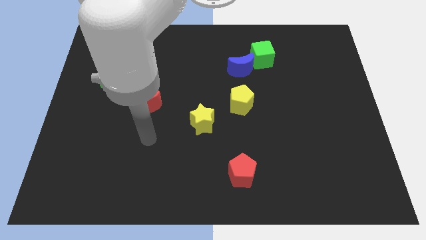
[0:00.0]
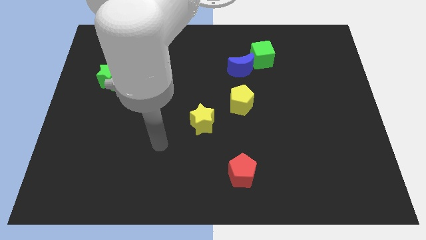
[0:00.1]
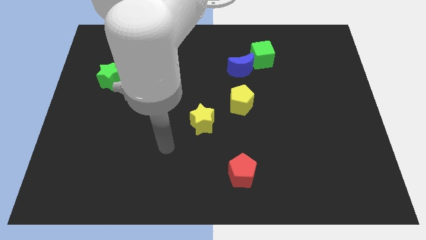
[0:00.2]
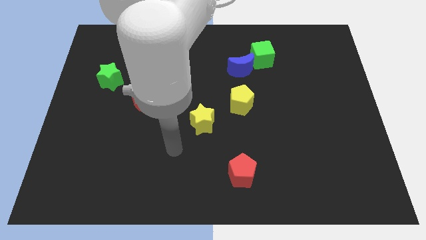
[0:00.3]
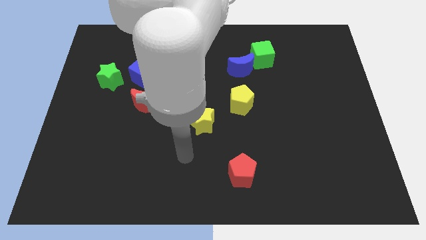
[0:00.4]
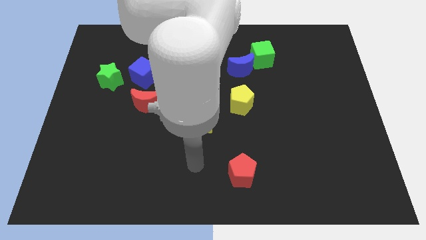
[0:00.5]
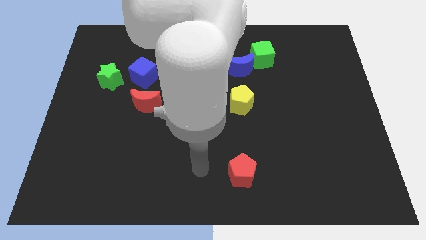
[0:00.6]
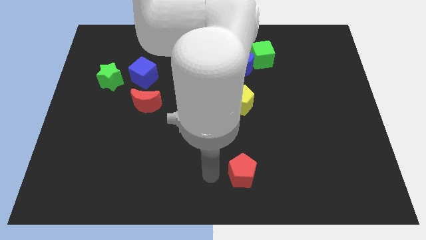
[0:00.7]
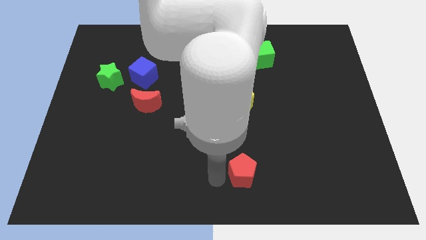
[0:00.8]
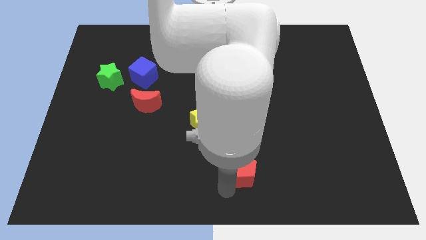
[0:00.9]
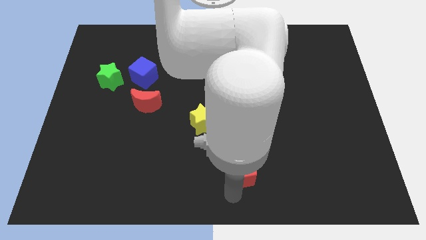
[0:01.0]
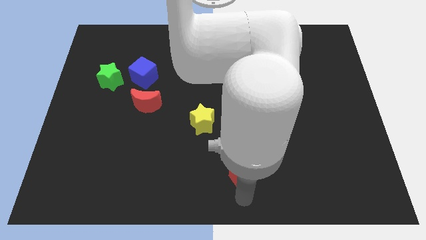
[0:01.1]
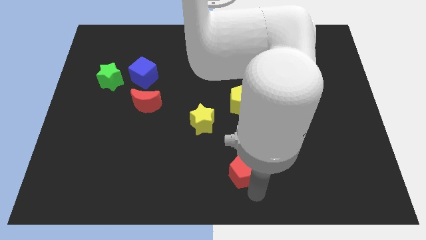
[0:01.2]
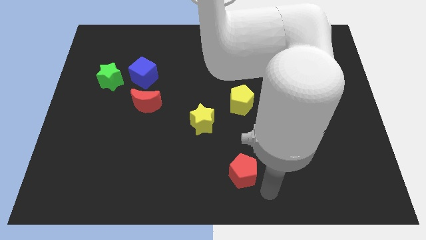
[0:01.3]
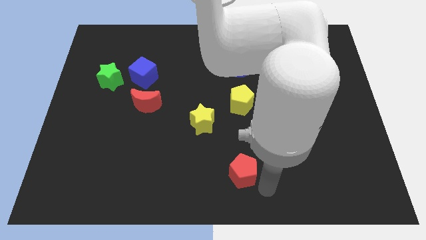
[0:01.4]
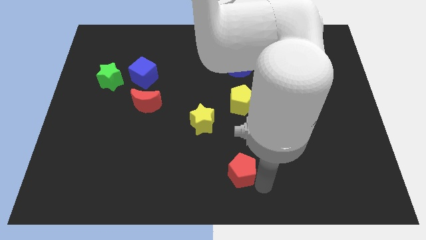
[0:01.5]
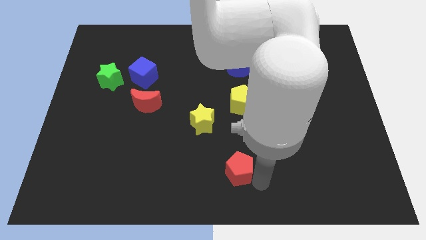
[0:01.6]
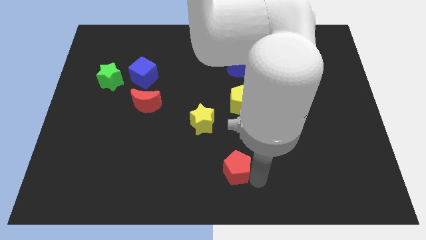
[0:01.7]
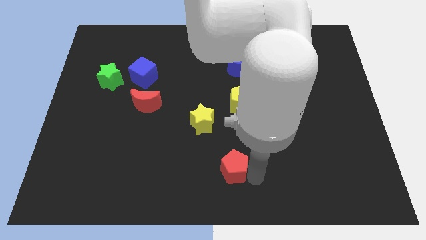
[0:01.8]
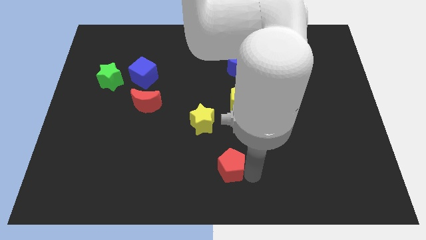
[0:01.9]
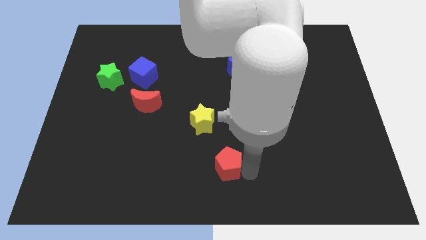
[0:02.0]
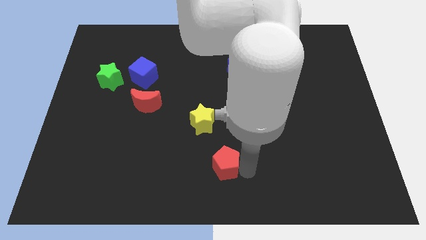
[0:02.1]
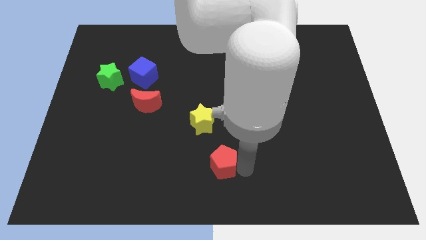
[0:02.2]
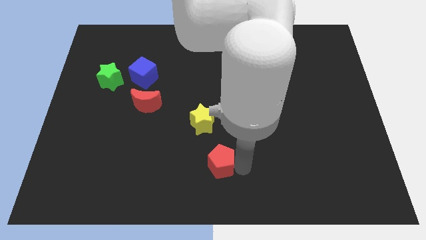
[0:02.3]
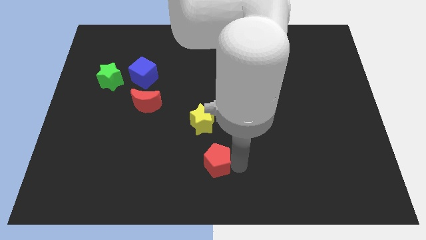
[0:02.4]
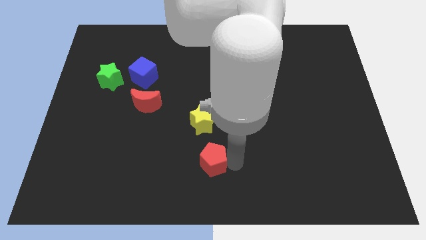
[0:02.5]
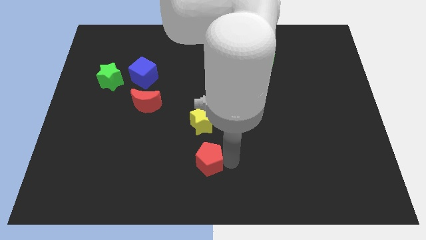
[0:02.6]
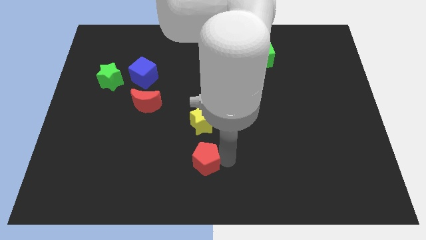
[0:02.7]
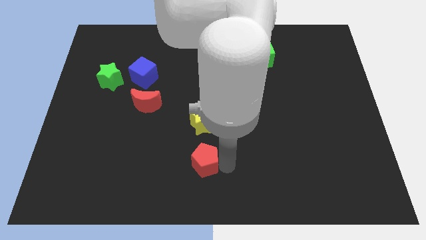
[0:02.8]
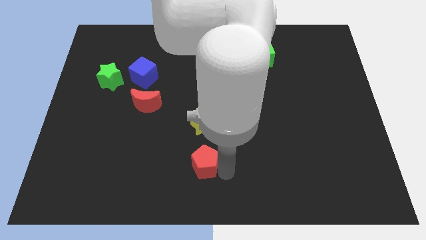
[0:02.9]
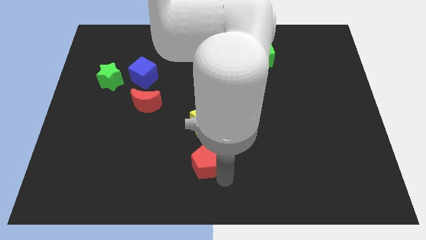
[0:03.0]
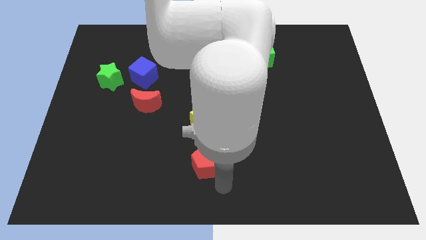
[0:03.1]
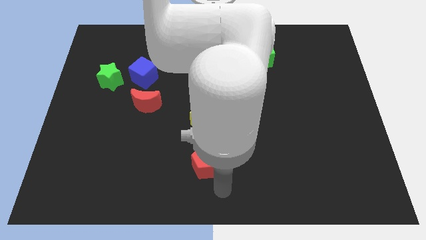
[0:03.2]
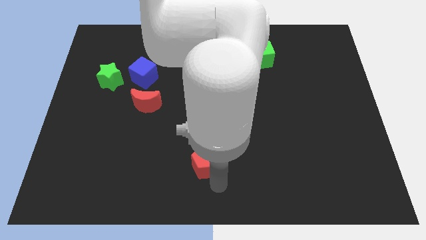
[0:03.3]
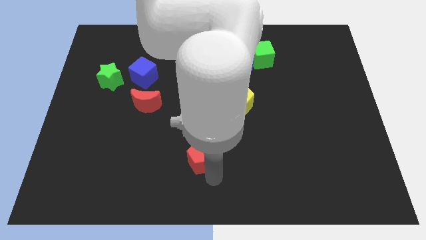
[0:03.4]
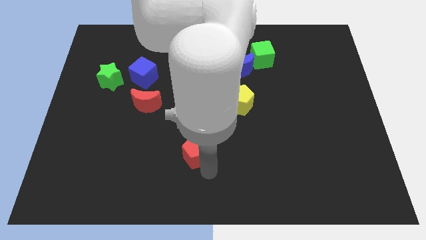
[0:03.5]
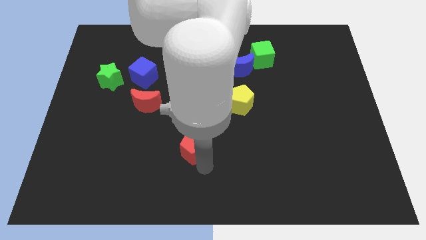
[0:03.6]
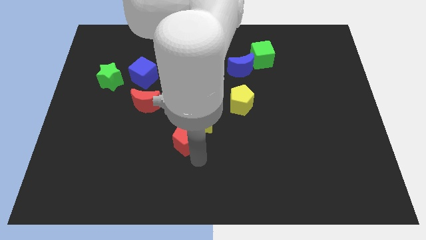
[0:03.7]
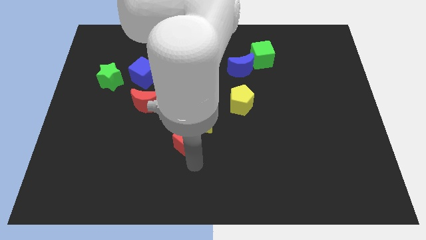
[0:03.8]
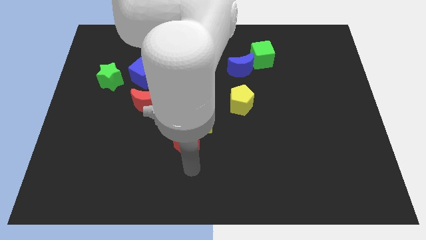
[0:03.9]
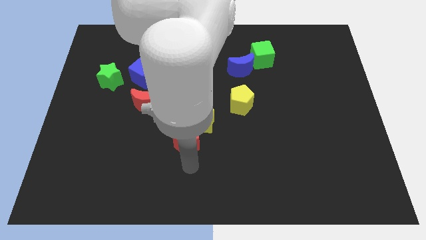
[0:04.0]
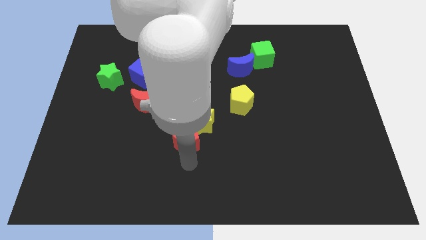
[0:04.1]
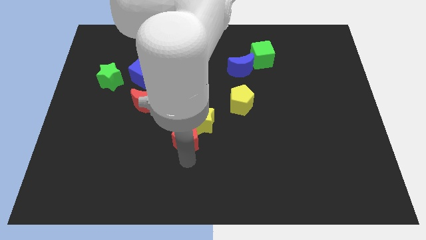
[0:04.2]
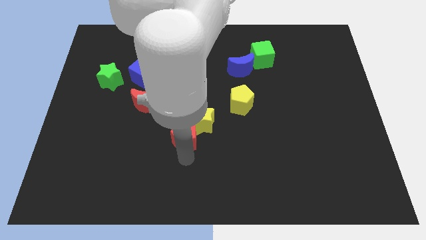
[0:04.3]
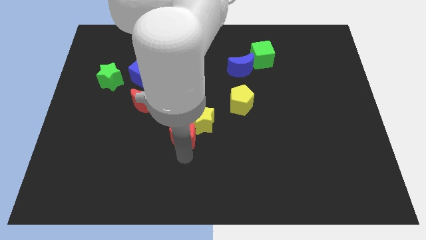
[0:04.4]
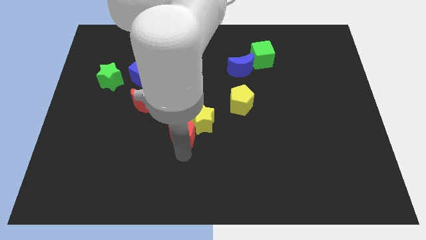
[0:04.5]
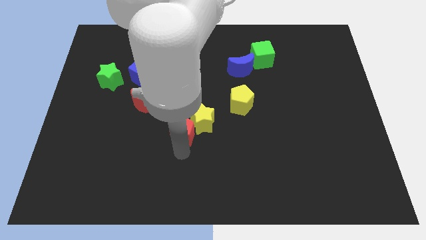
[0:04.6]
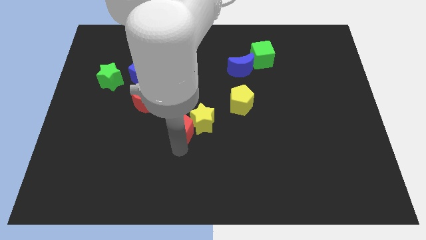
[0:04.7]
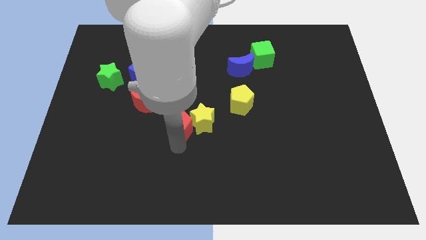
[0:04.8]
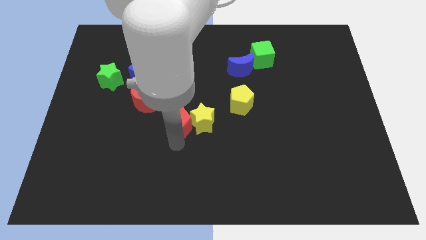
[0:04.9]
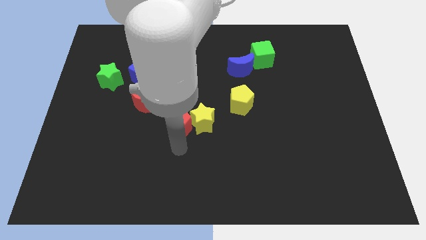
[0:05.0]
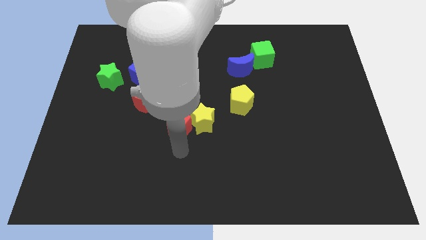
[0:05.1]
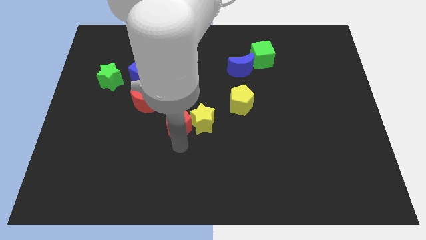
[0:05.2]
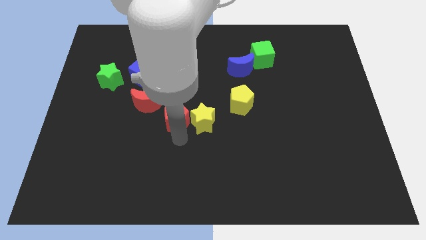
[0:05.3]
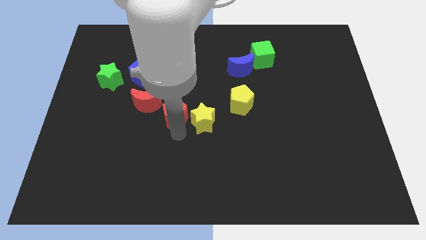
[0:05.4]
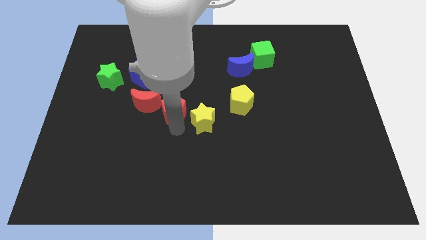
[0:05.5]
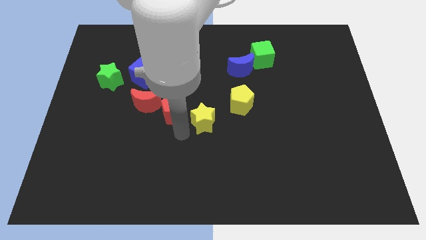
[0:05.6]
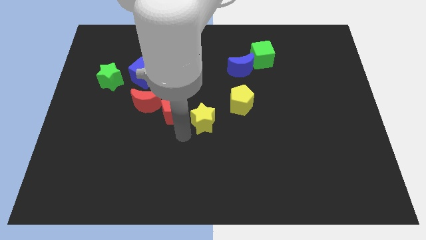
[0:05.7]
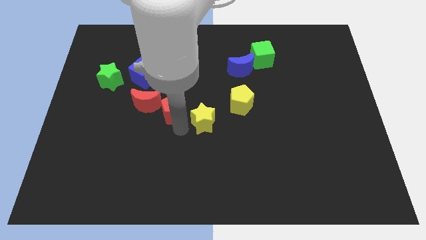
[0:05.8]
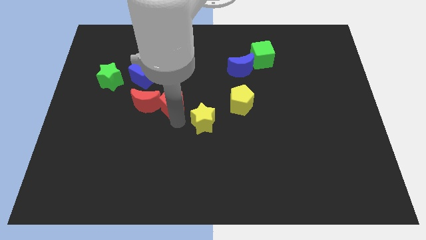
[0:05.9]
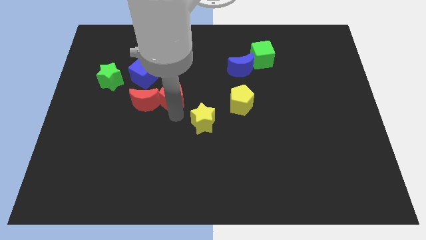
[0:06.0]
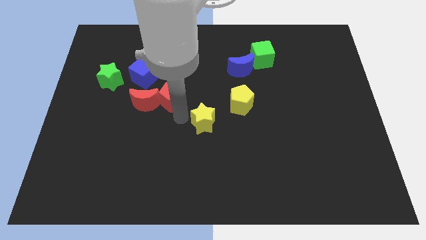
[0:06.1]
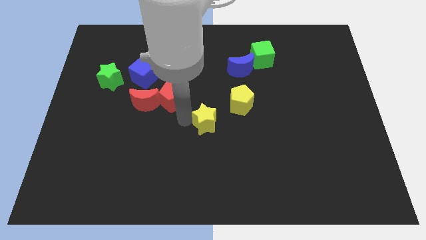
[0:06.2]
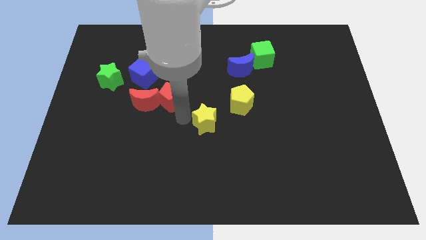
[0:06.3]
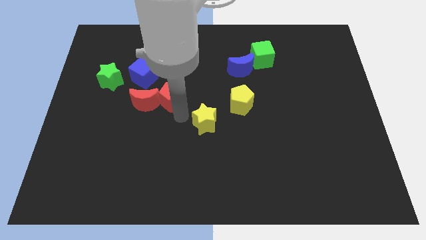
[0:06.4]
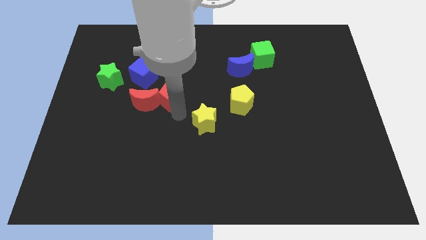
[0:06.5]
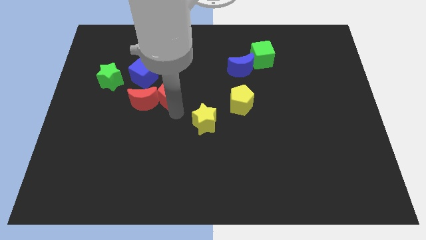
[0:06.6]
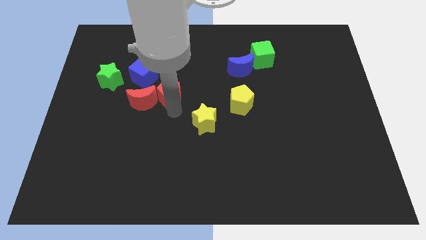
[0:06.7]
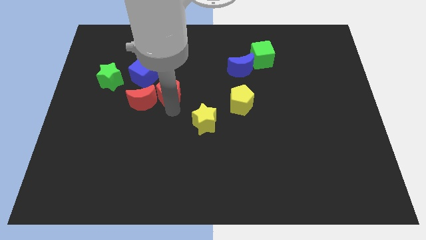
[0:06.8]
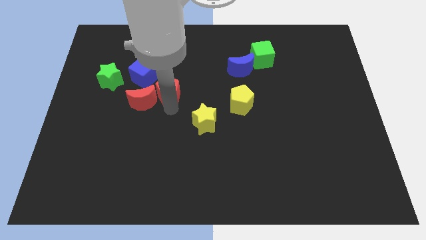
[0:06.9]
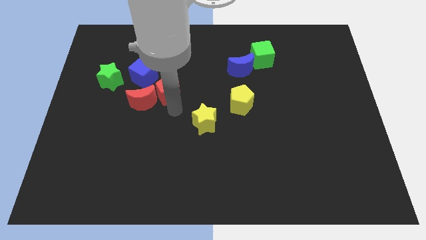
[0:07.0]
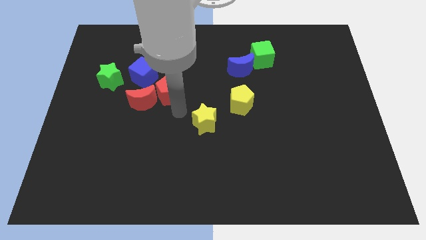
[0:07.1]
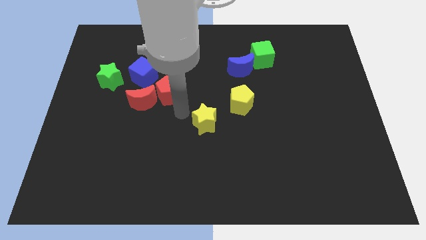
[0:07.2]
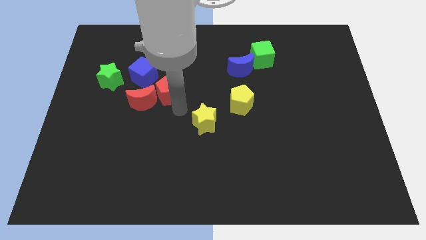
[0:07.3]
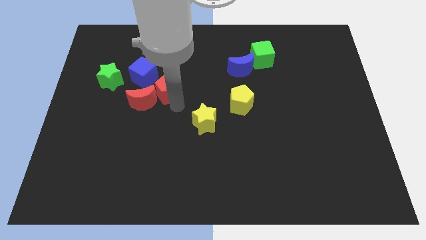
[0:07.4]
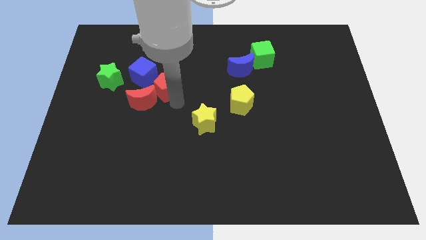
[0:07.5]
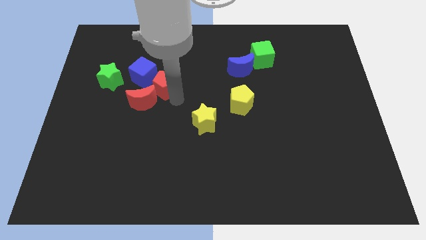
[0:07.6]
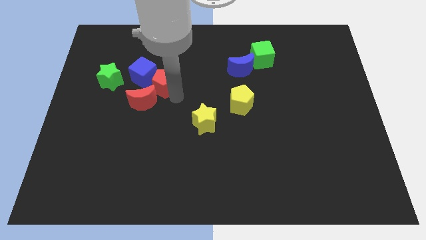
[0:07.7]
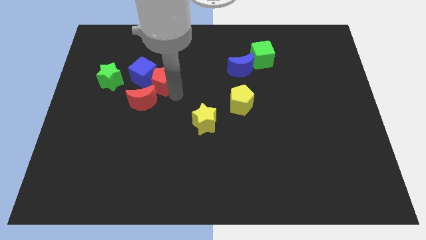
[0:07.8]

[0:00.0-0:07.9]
put the red pentagon towards the blue cube
